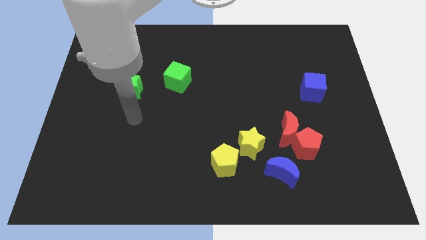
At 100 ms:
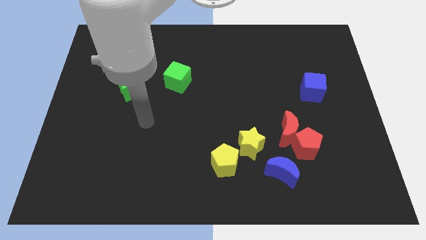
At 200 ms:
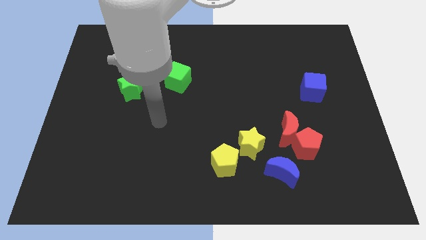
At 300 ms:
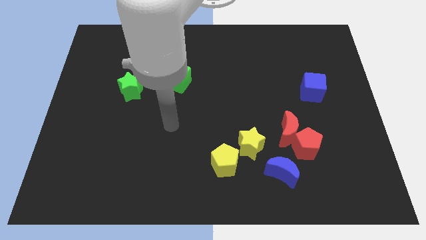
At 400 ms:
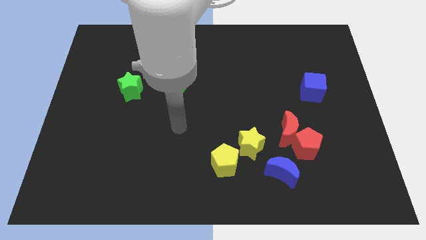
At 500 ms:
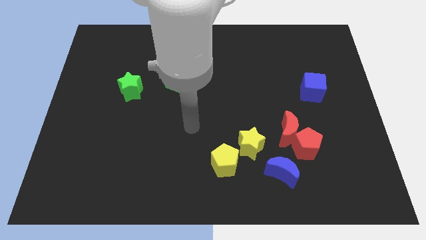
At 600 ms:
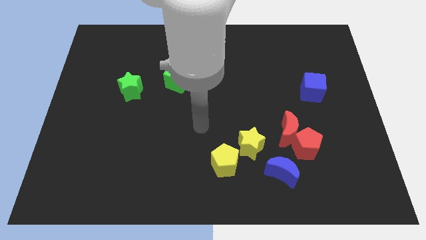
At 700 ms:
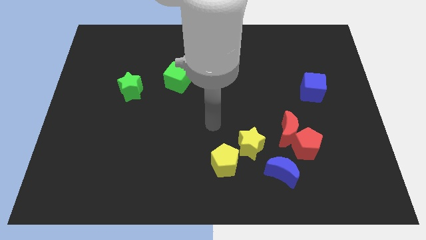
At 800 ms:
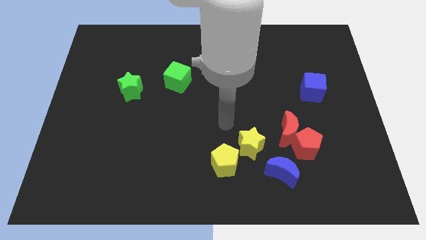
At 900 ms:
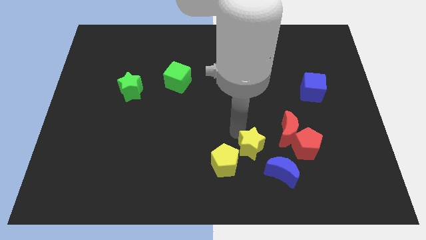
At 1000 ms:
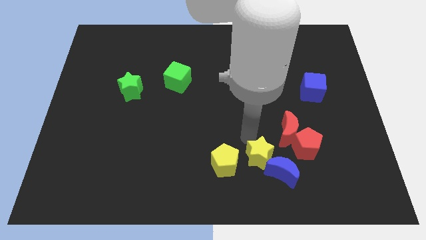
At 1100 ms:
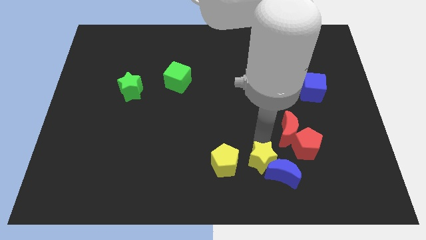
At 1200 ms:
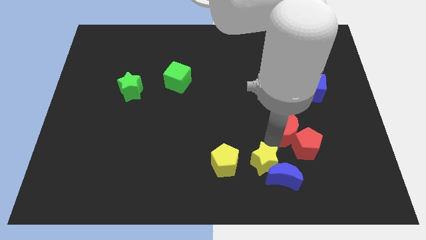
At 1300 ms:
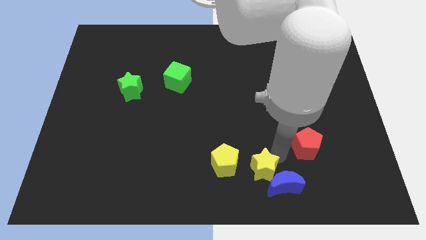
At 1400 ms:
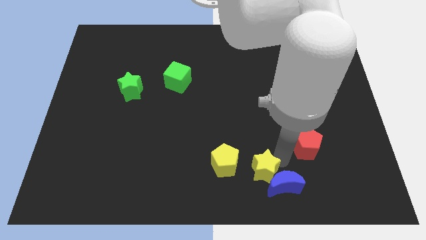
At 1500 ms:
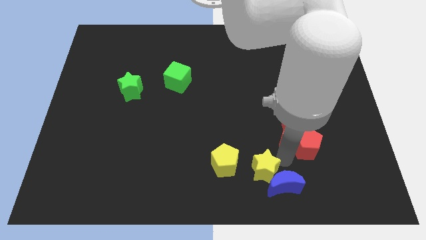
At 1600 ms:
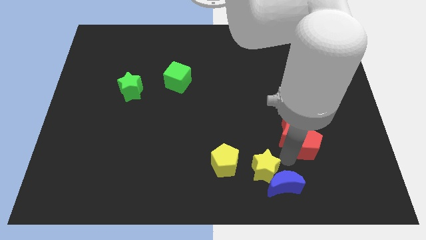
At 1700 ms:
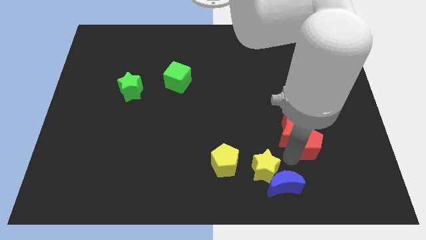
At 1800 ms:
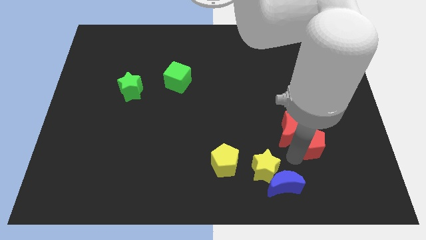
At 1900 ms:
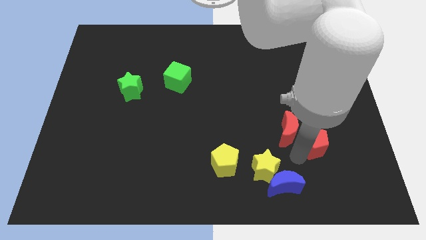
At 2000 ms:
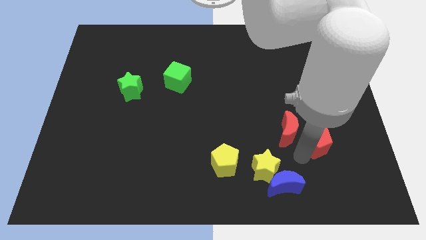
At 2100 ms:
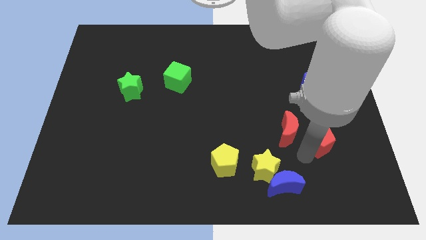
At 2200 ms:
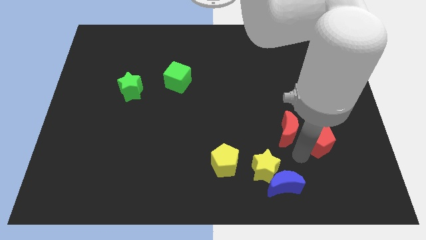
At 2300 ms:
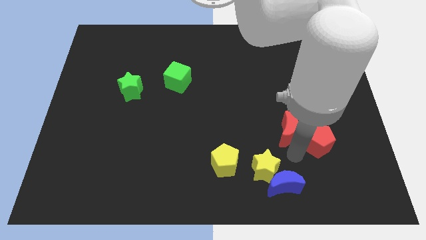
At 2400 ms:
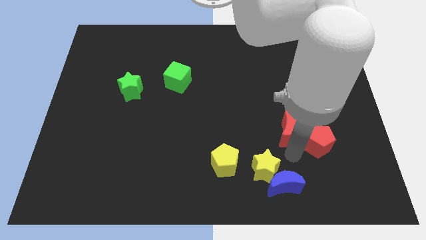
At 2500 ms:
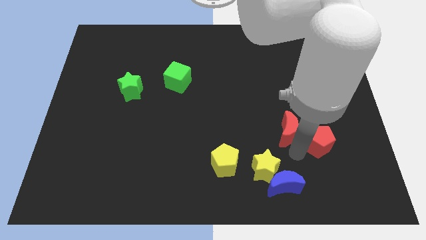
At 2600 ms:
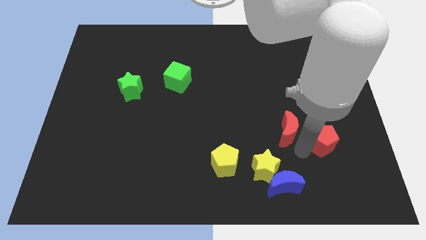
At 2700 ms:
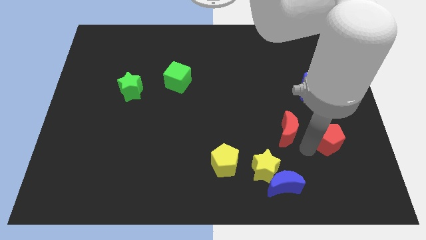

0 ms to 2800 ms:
move the red pentagon away from the red moon and blue moon

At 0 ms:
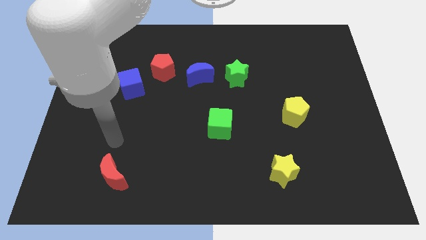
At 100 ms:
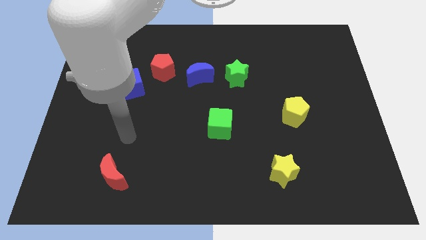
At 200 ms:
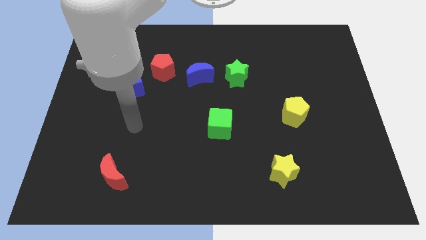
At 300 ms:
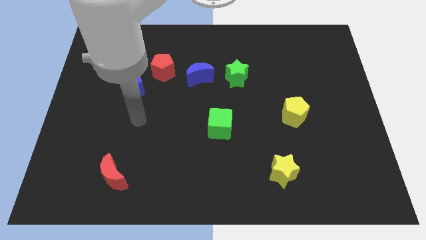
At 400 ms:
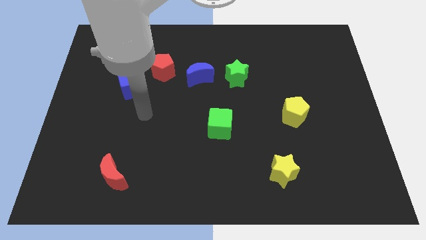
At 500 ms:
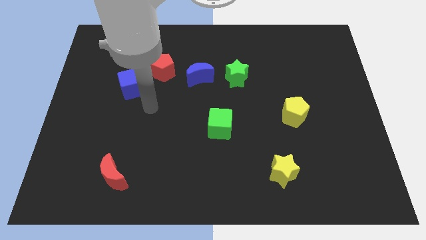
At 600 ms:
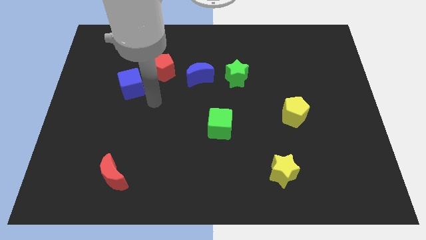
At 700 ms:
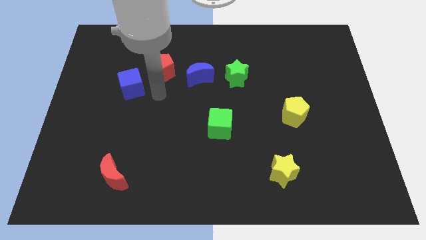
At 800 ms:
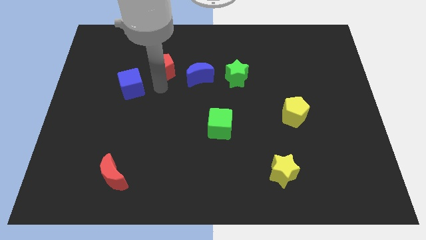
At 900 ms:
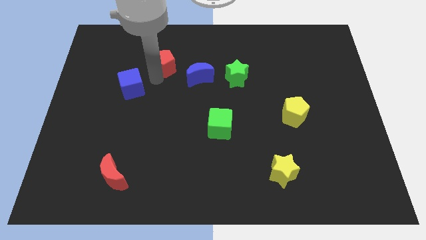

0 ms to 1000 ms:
pull the blue cube apart from the red pentagon

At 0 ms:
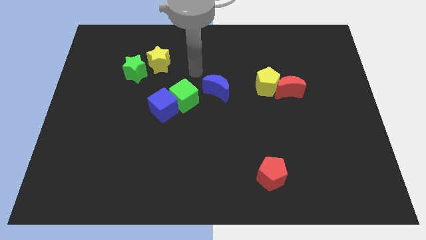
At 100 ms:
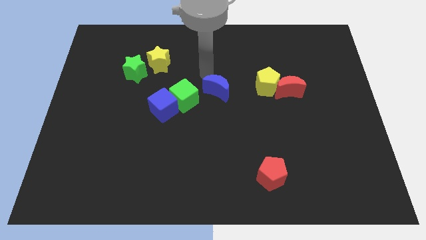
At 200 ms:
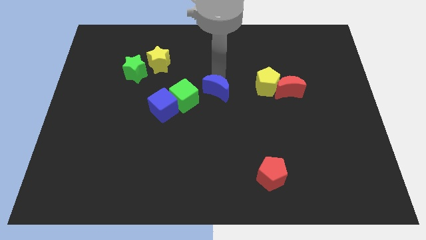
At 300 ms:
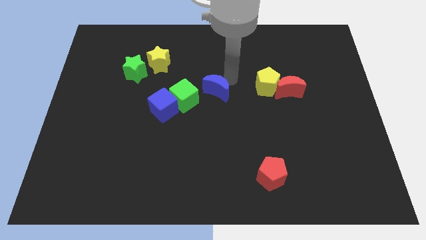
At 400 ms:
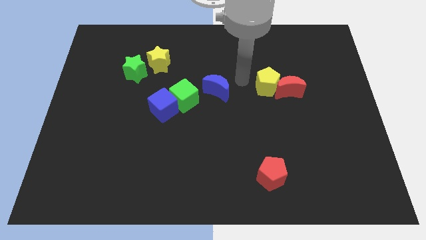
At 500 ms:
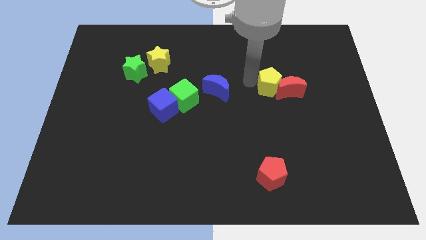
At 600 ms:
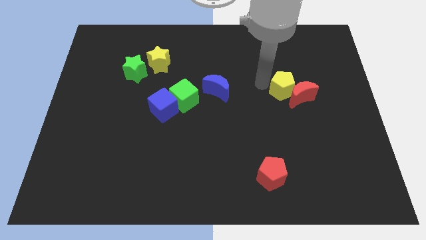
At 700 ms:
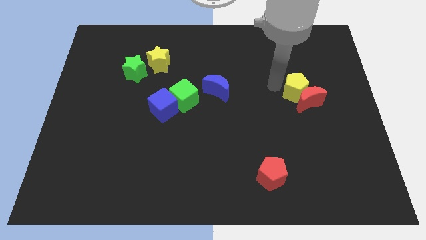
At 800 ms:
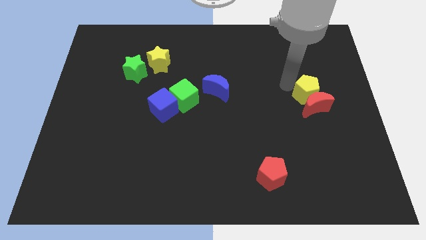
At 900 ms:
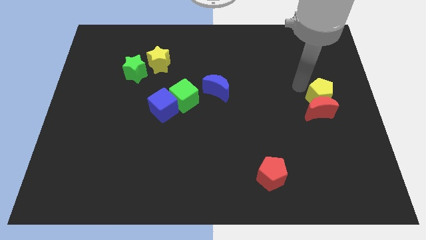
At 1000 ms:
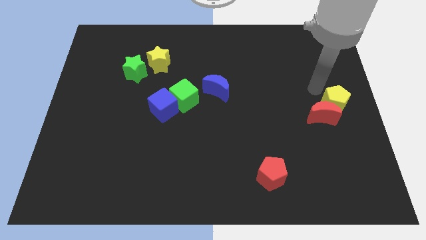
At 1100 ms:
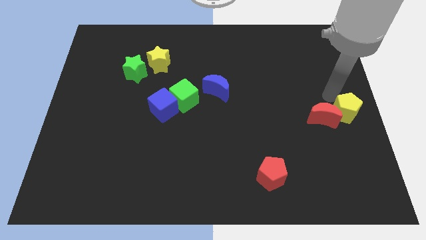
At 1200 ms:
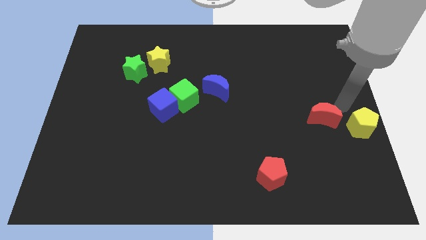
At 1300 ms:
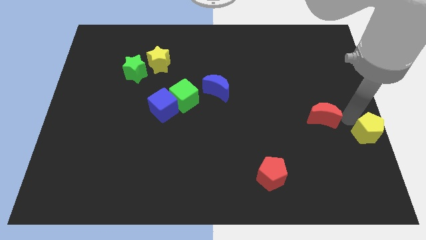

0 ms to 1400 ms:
separate the red moon from the yellow pentagon

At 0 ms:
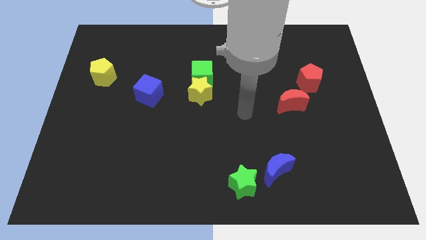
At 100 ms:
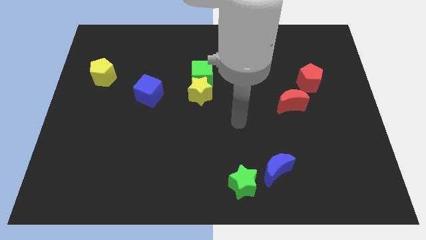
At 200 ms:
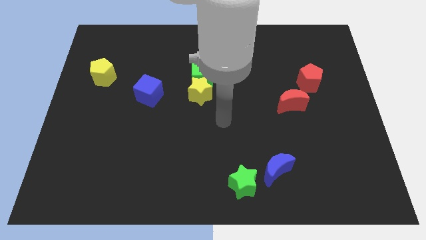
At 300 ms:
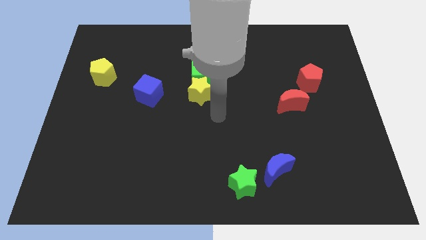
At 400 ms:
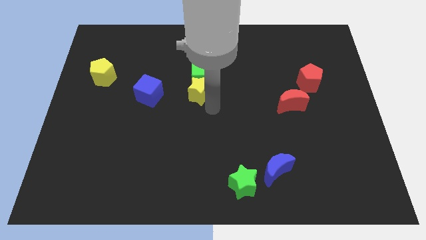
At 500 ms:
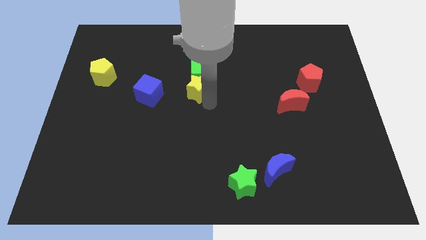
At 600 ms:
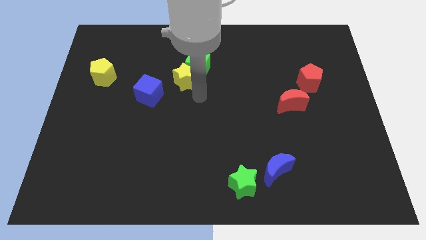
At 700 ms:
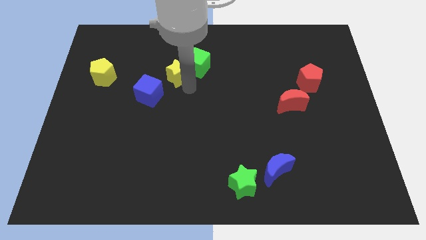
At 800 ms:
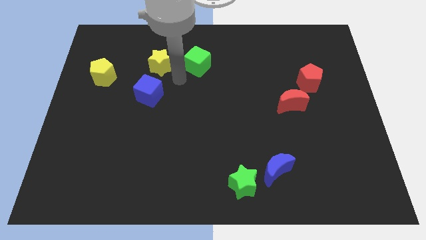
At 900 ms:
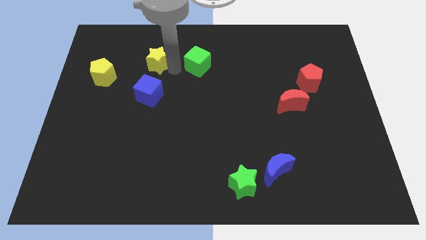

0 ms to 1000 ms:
pull the green cube apart from the yellow star

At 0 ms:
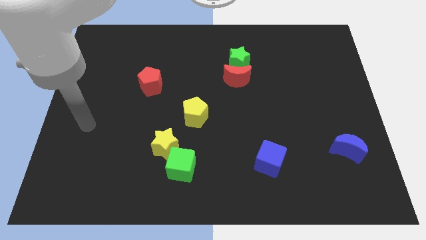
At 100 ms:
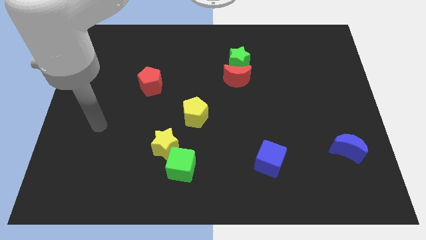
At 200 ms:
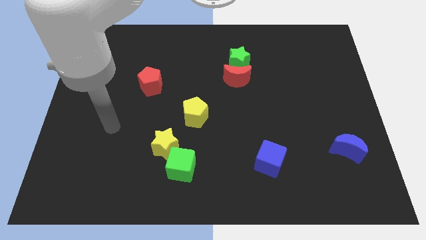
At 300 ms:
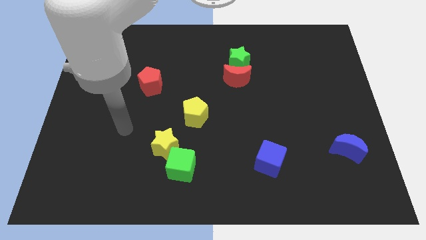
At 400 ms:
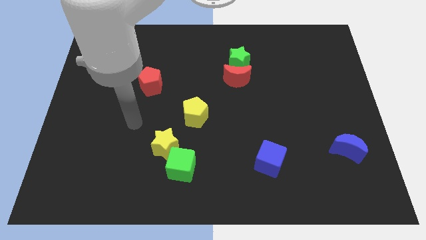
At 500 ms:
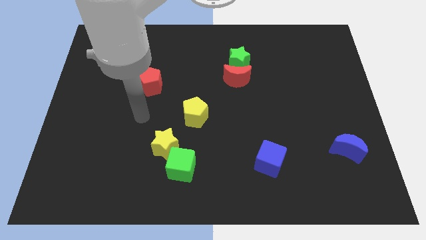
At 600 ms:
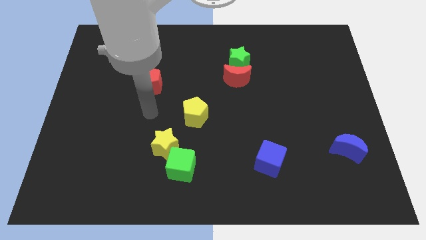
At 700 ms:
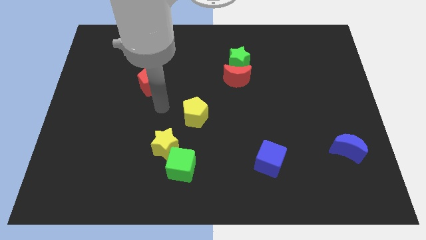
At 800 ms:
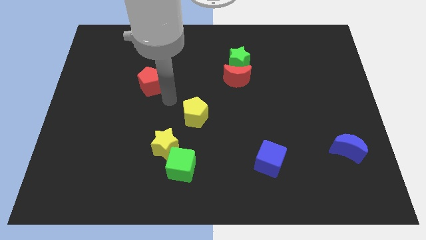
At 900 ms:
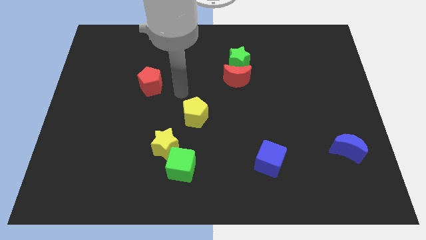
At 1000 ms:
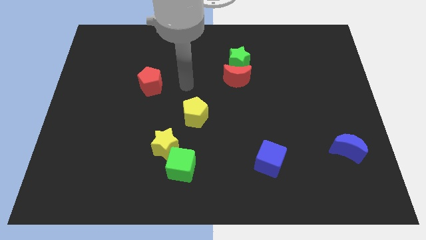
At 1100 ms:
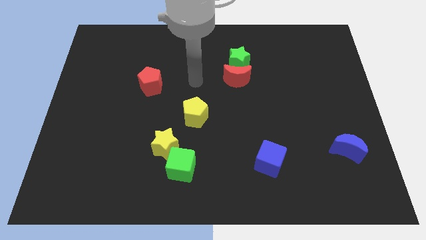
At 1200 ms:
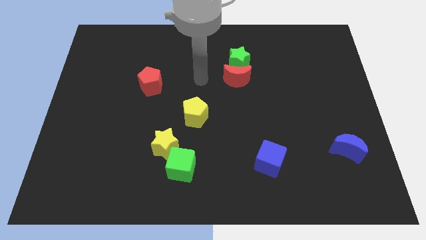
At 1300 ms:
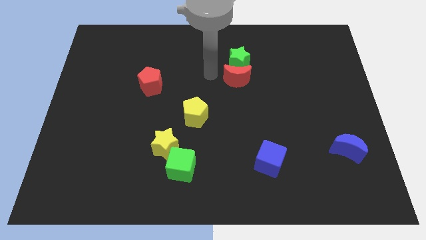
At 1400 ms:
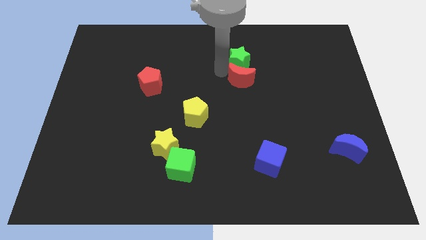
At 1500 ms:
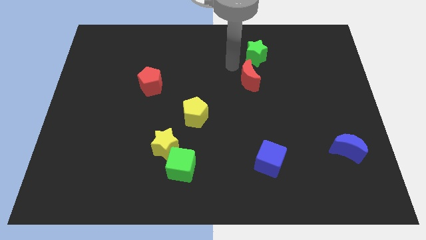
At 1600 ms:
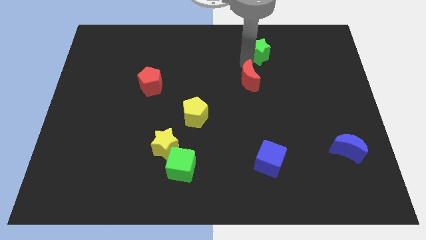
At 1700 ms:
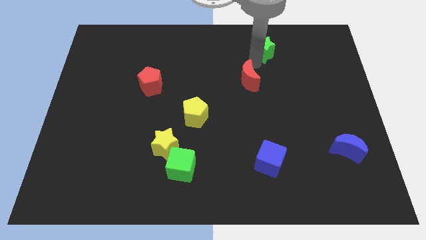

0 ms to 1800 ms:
pull the red moon apart from the green star

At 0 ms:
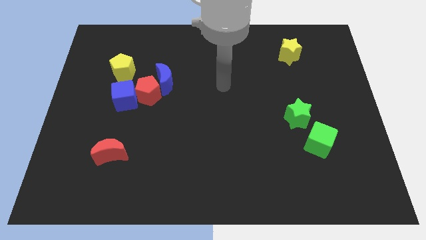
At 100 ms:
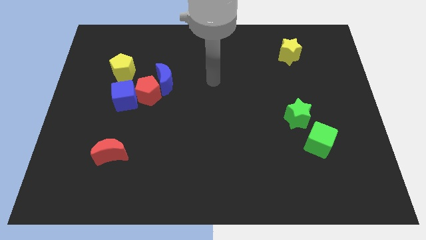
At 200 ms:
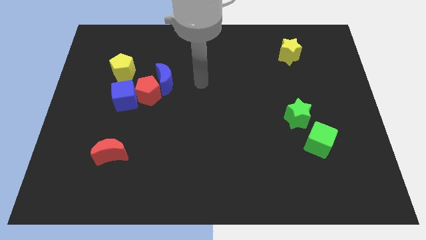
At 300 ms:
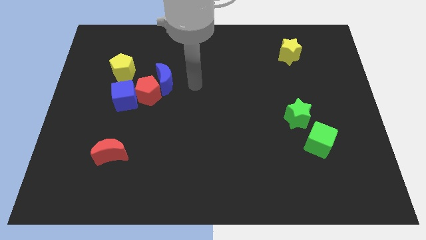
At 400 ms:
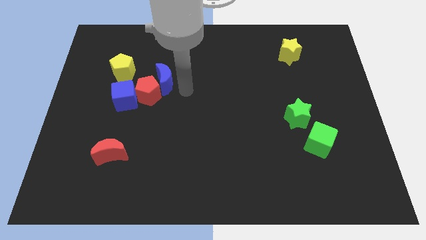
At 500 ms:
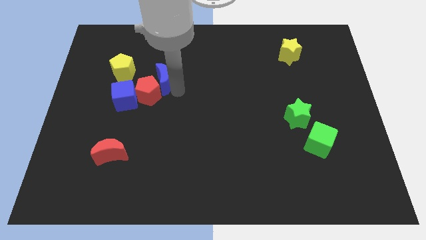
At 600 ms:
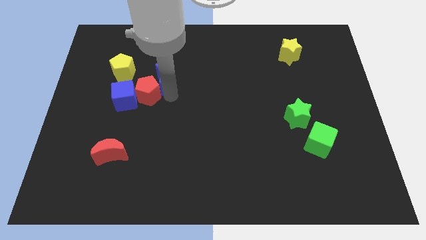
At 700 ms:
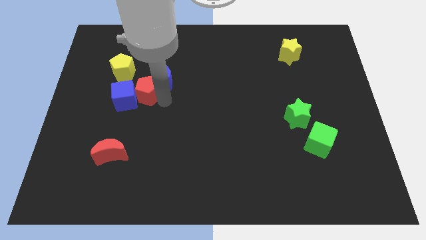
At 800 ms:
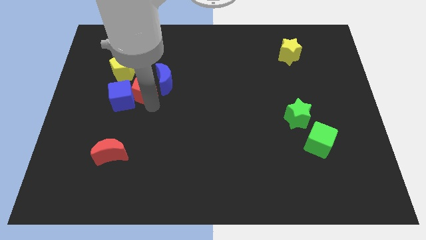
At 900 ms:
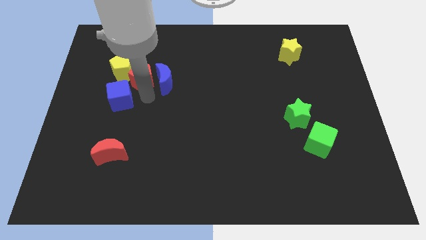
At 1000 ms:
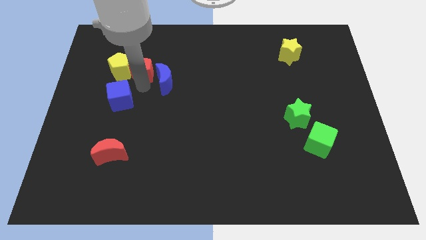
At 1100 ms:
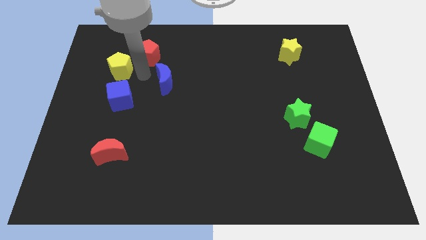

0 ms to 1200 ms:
separate the blue moon from the red pentagon

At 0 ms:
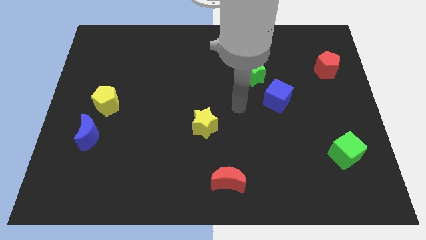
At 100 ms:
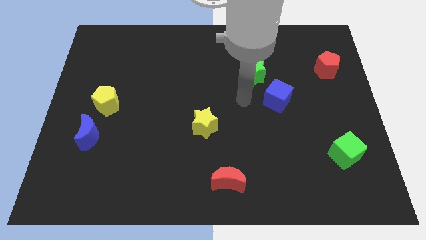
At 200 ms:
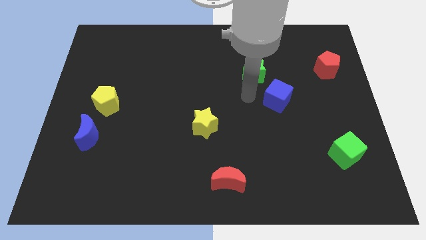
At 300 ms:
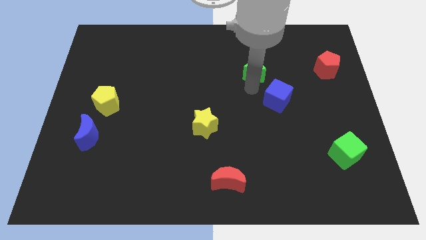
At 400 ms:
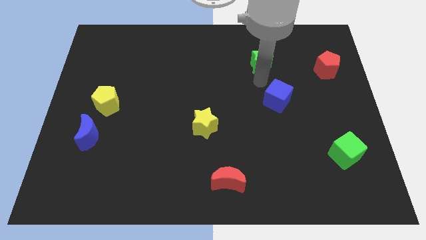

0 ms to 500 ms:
pull the blue cube apart from the green star
